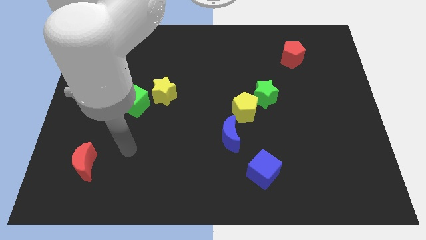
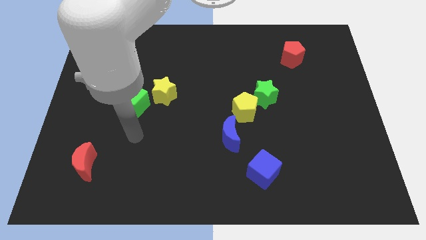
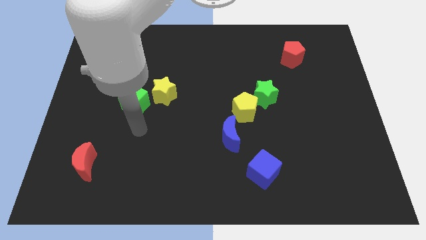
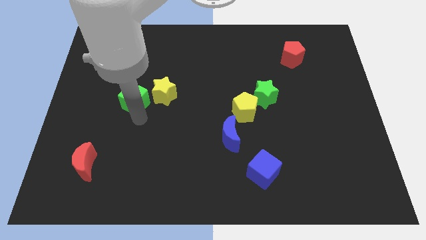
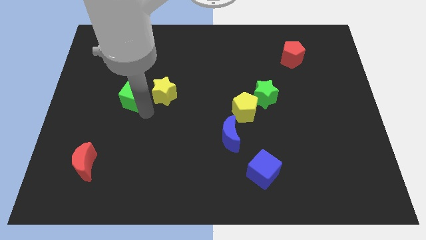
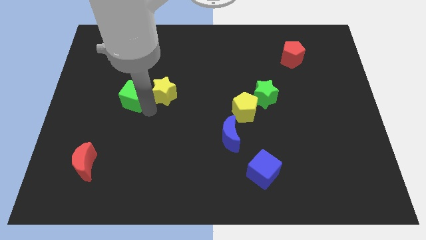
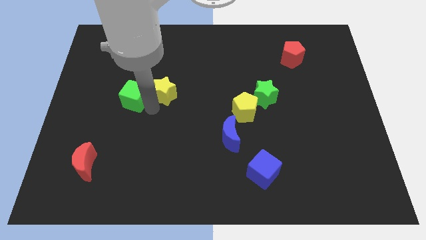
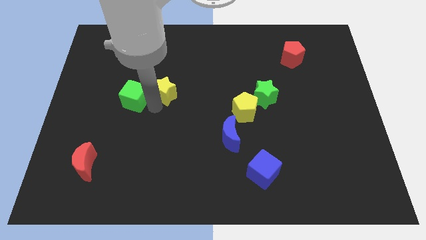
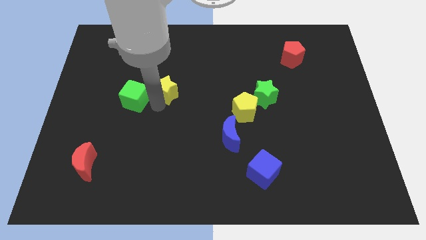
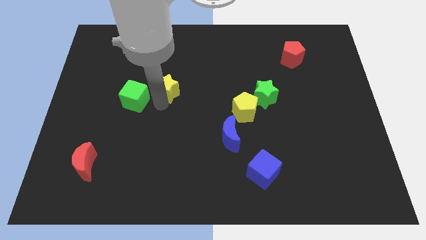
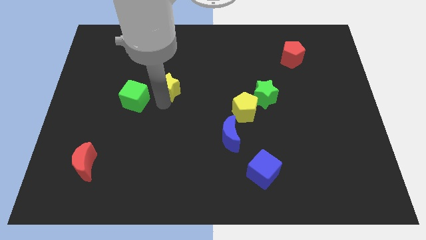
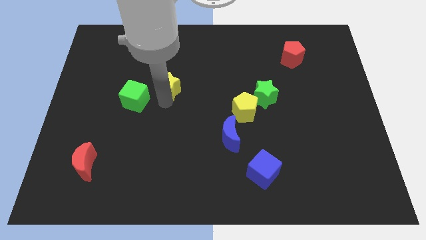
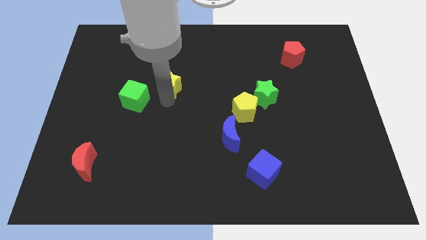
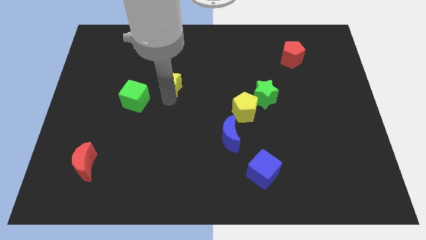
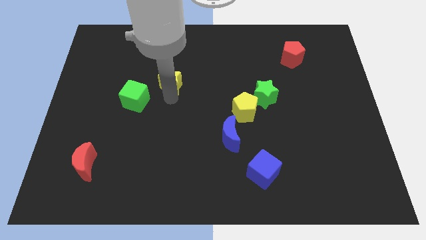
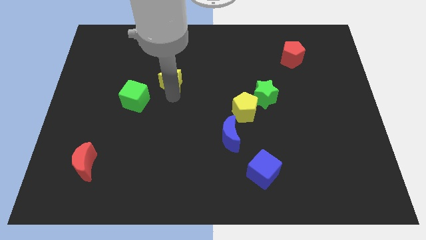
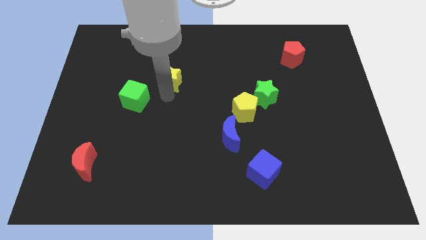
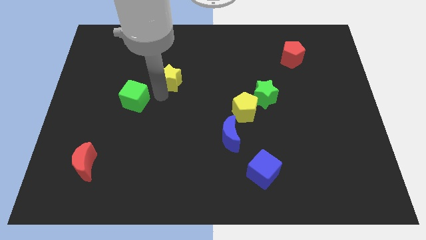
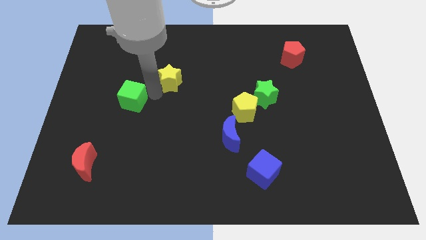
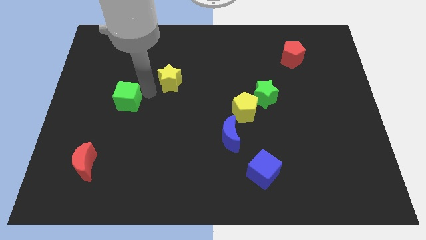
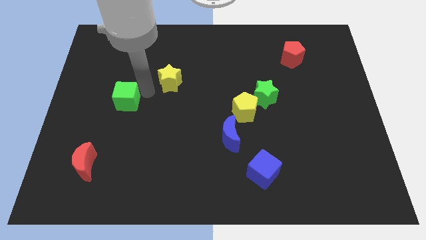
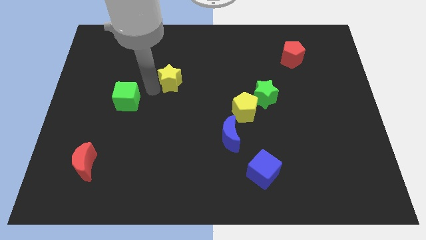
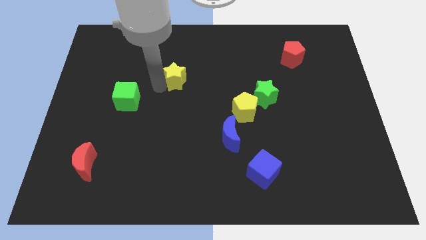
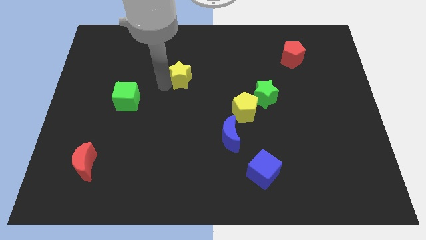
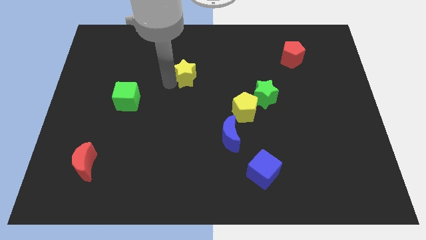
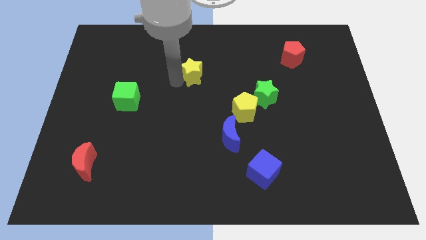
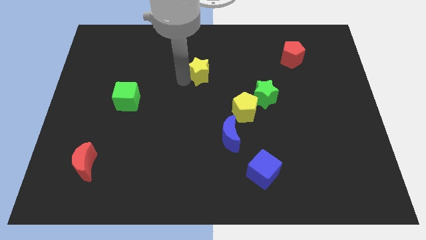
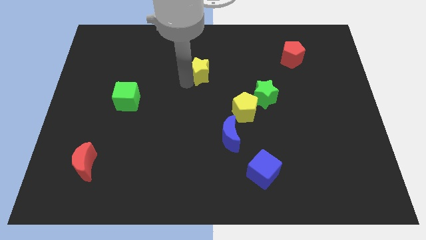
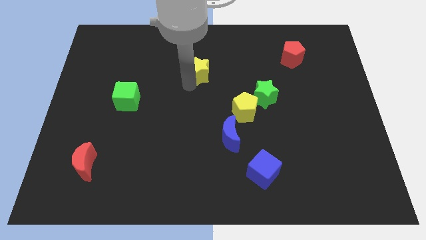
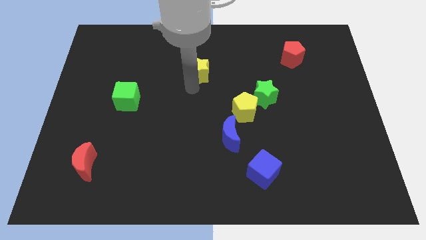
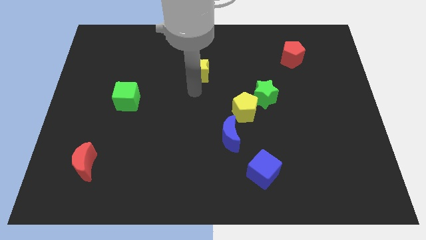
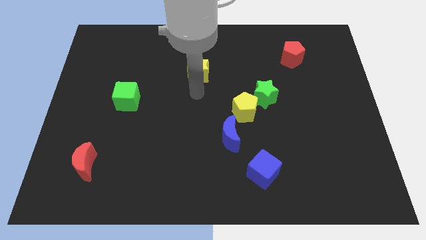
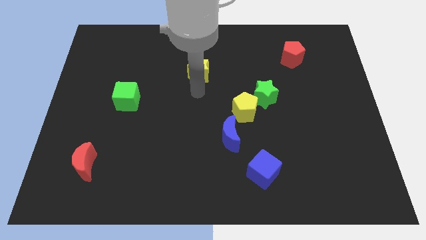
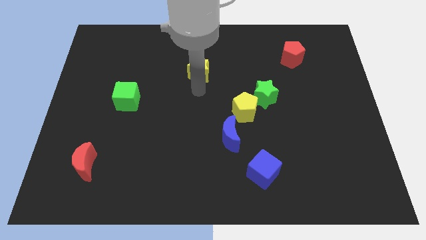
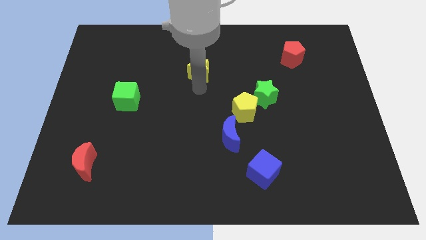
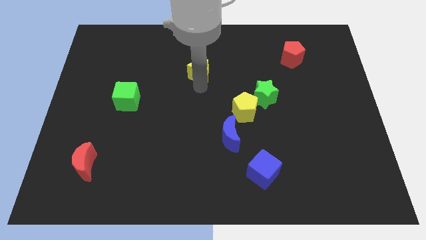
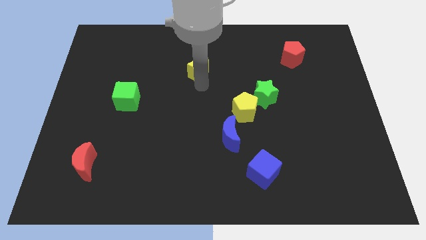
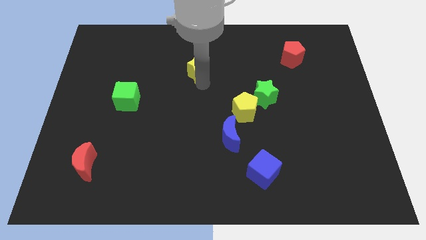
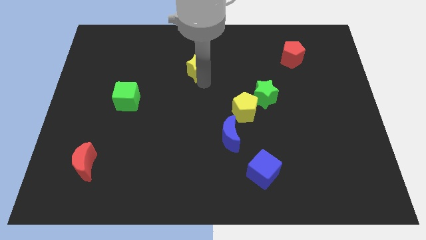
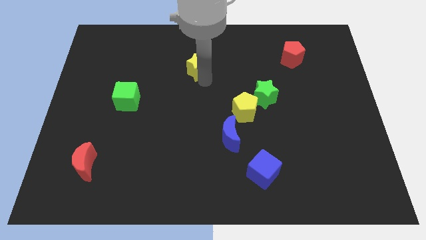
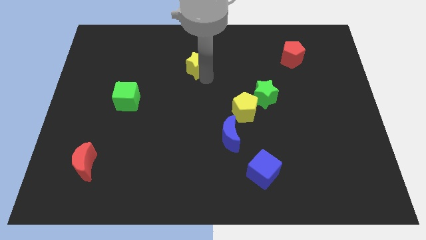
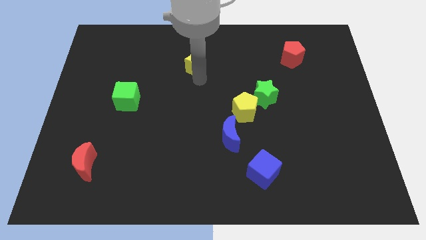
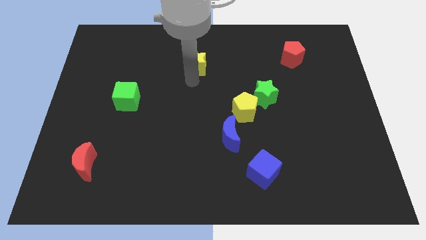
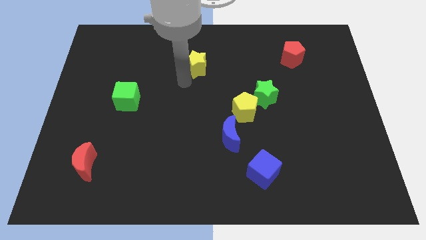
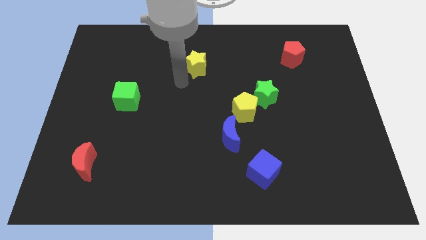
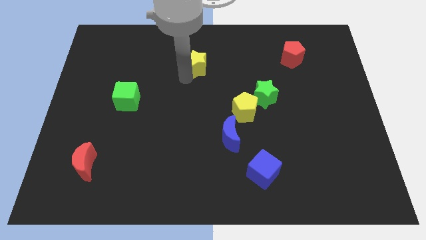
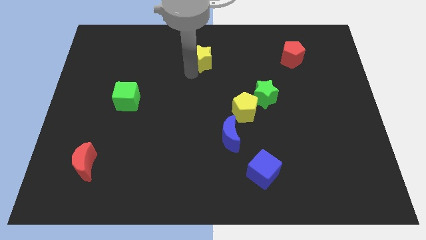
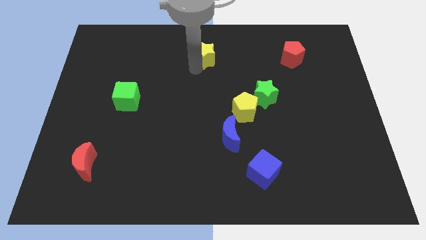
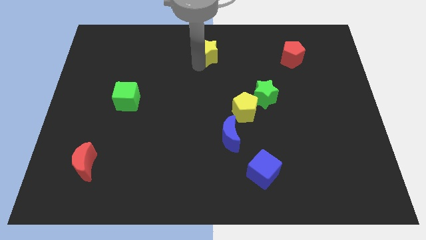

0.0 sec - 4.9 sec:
slide the yellow star to the top side

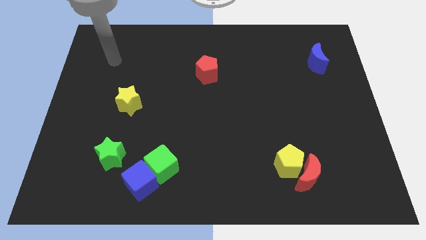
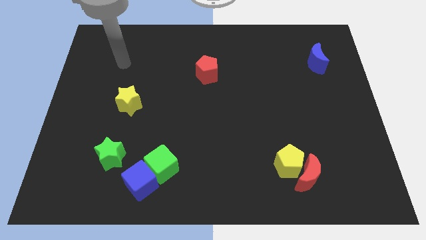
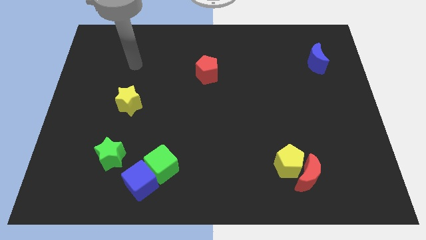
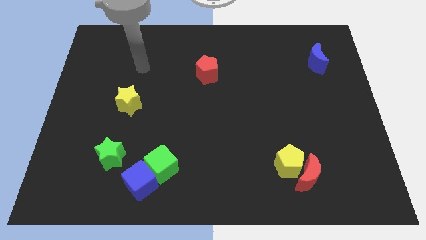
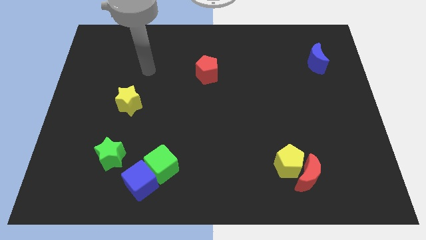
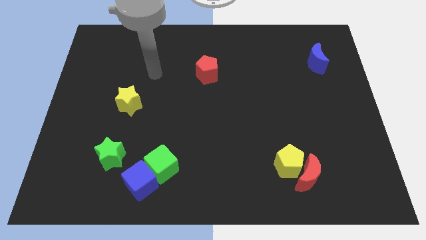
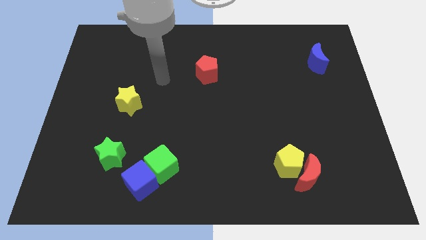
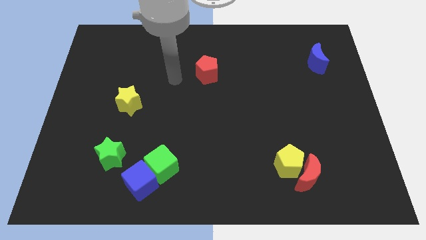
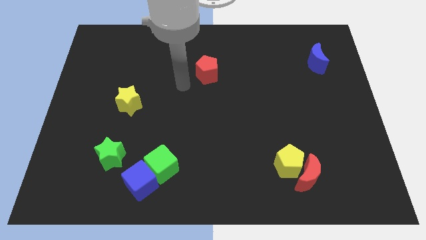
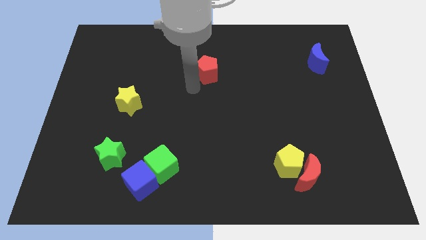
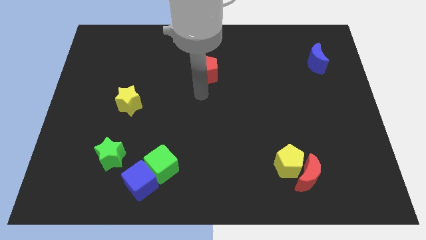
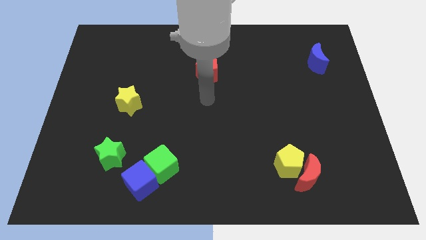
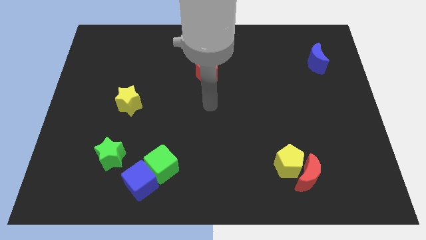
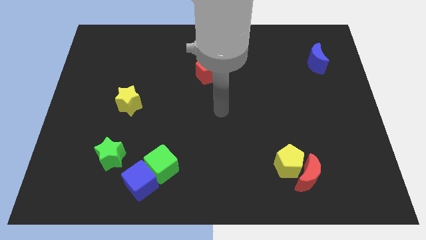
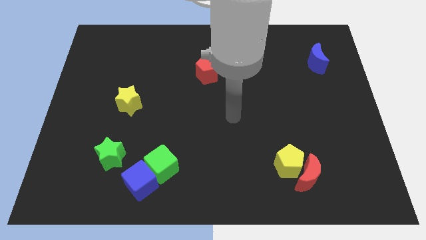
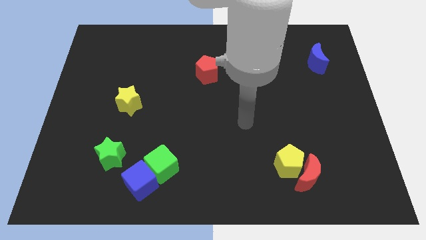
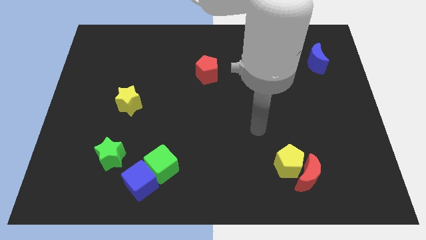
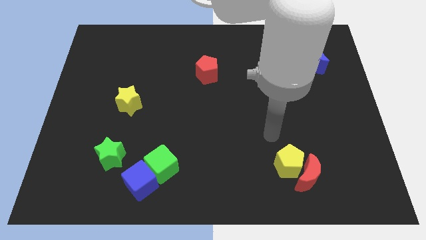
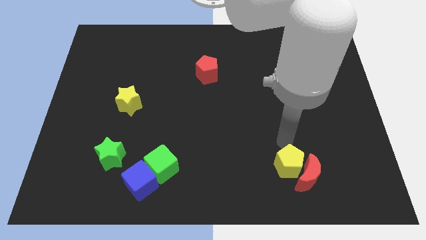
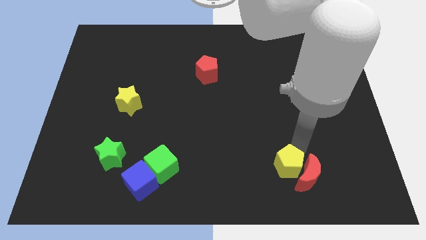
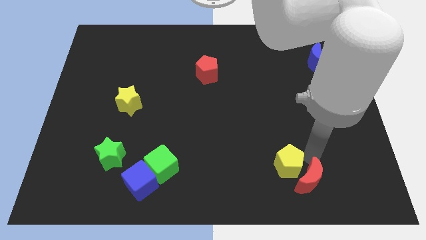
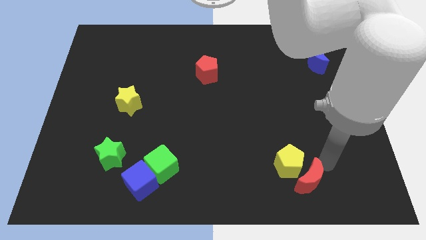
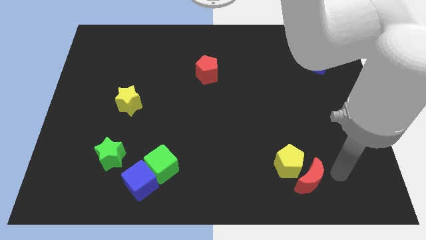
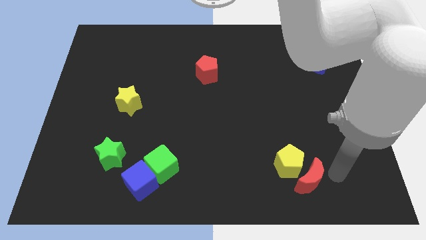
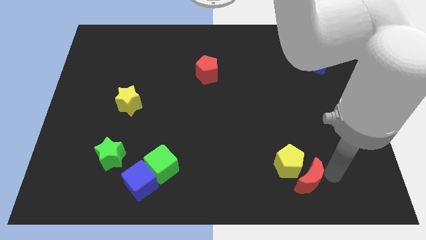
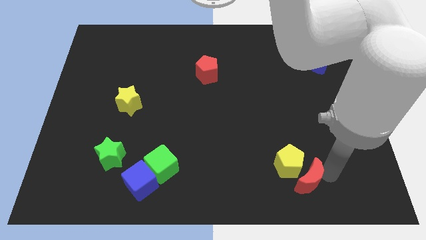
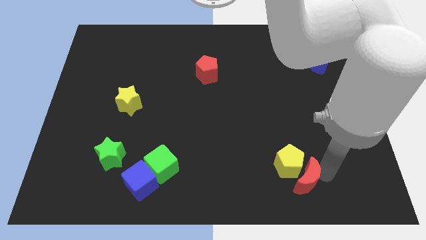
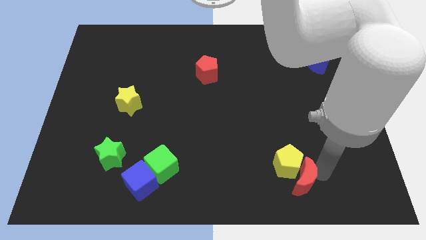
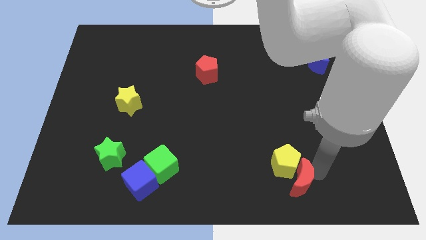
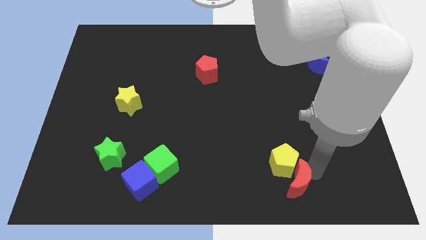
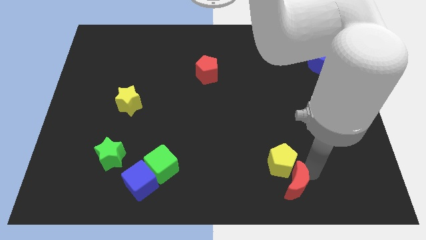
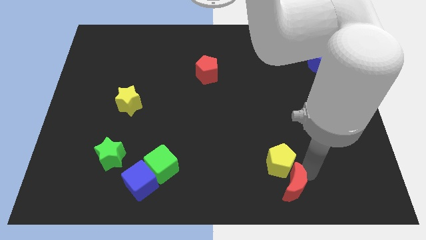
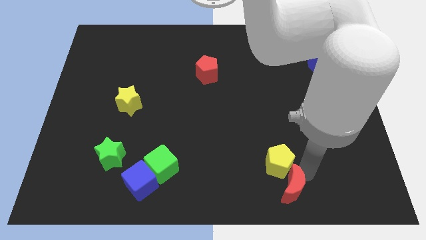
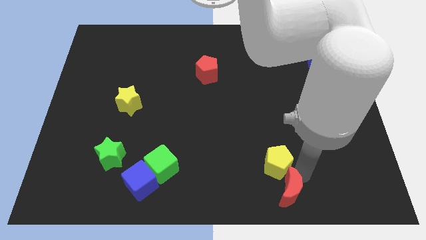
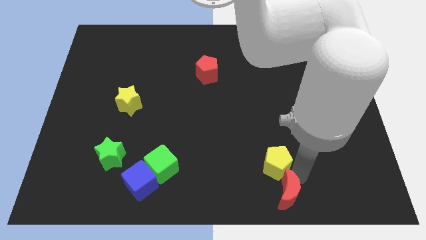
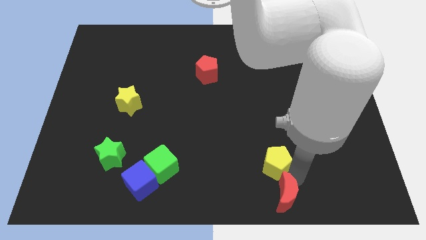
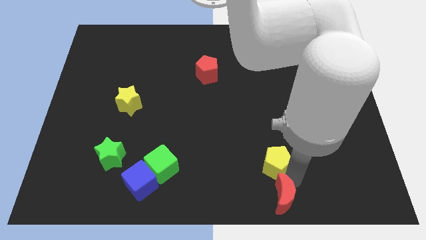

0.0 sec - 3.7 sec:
put the red moon to the bottom

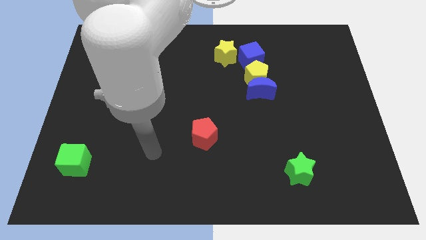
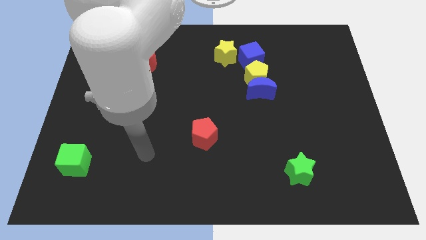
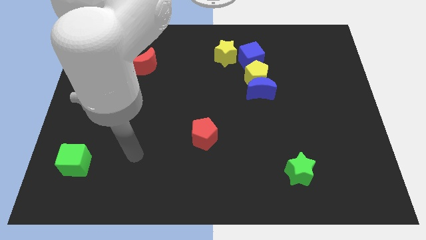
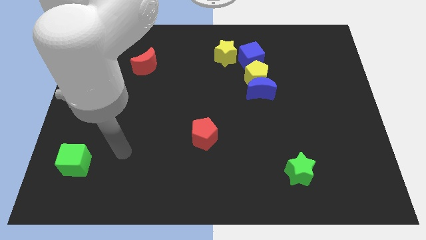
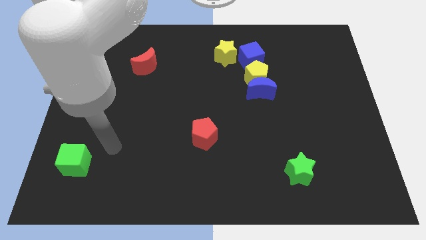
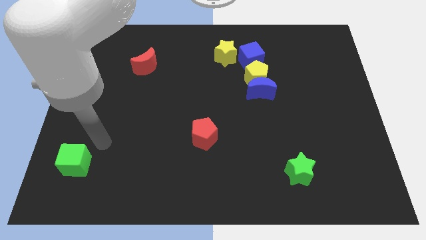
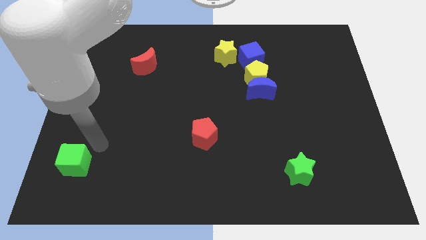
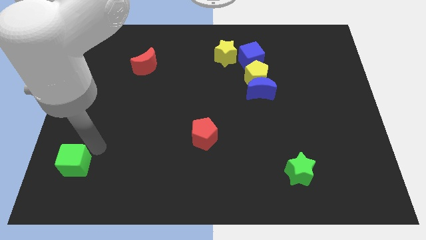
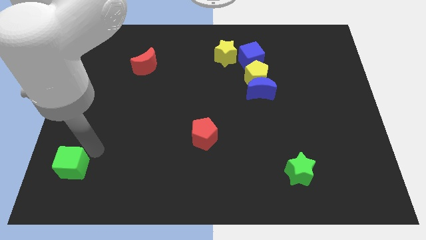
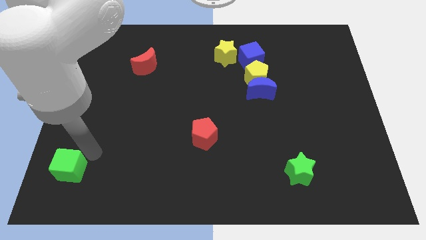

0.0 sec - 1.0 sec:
put the green cube to the lower left corner
